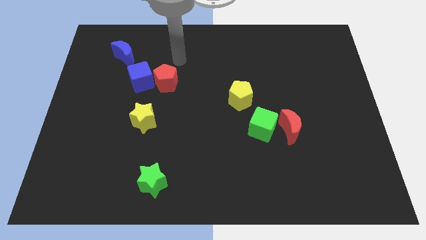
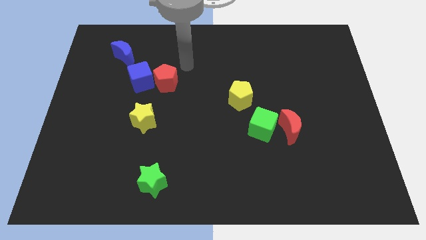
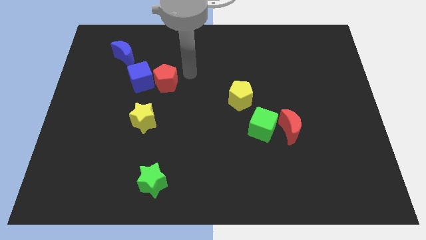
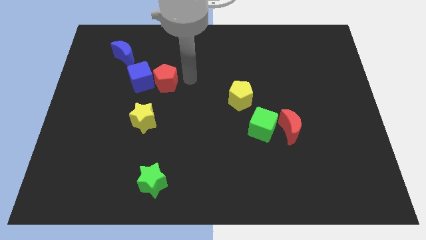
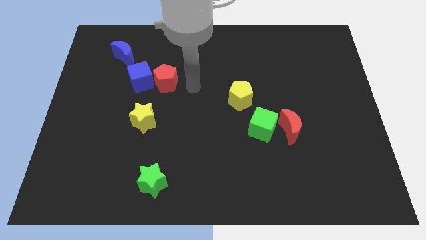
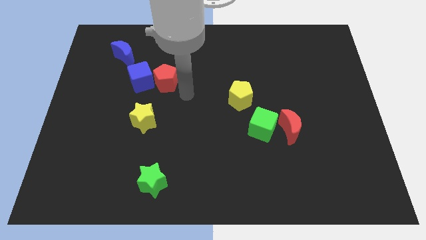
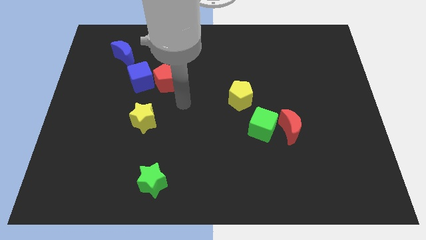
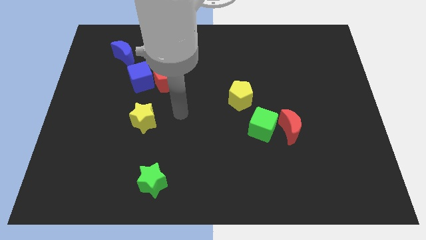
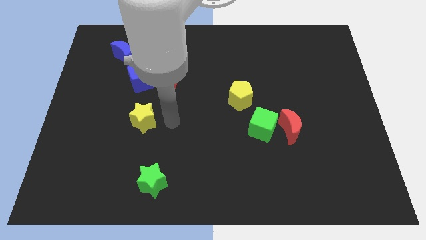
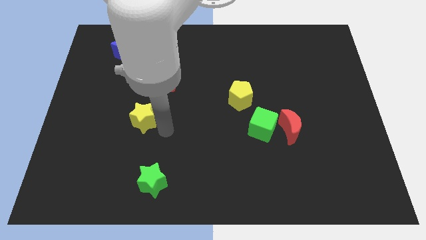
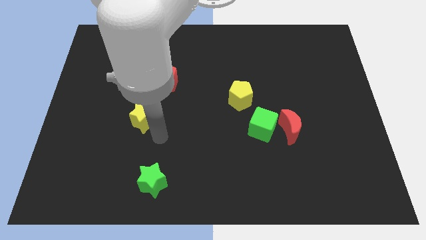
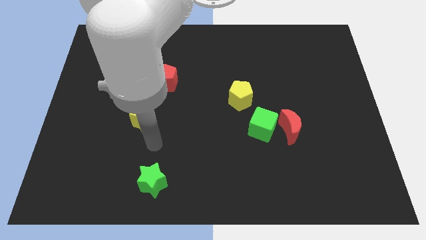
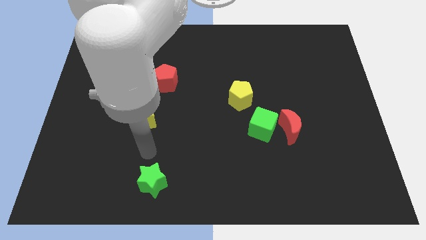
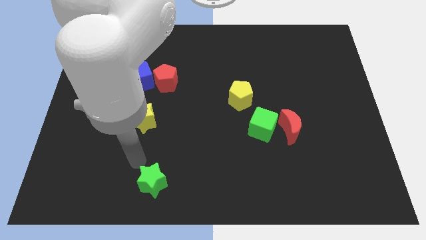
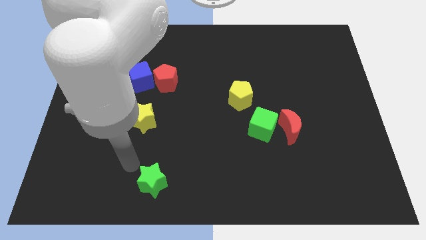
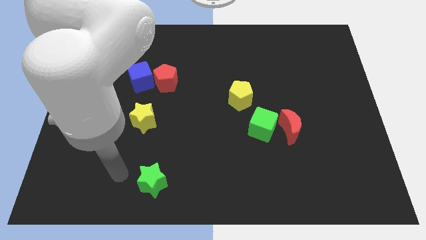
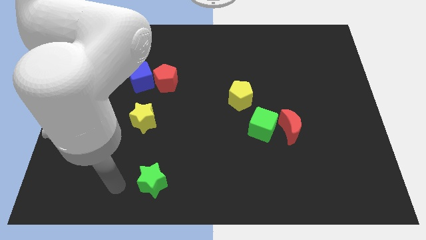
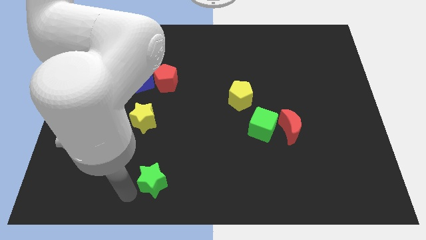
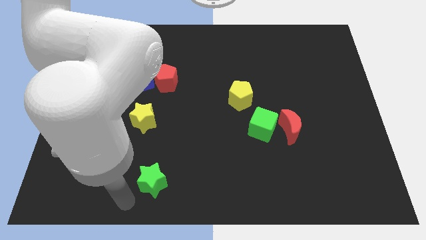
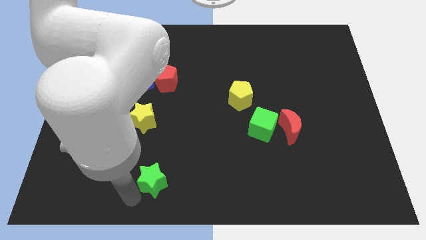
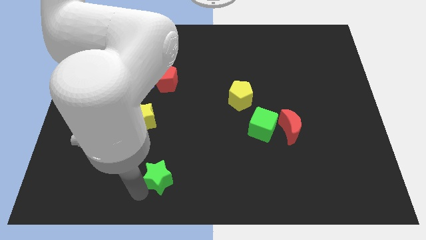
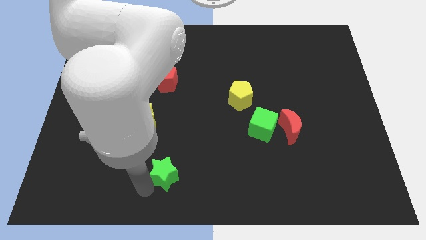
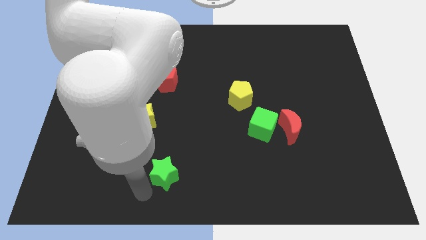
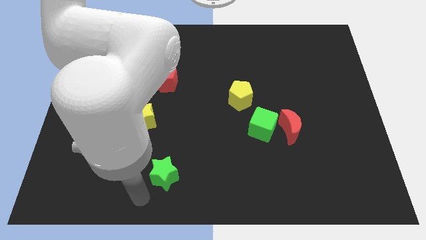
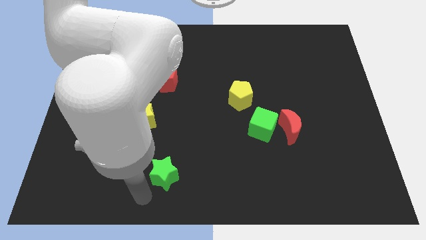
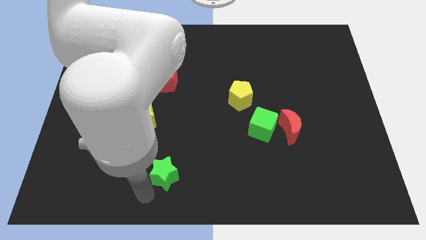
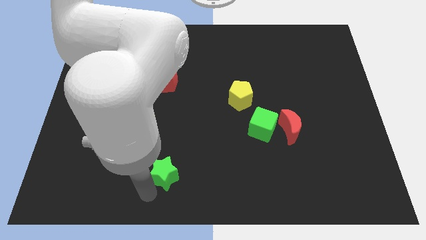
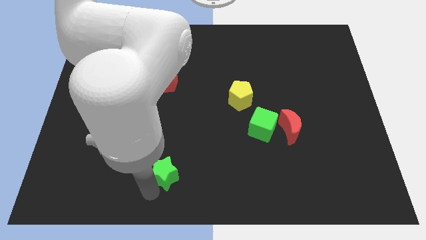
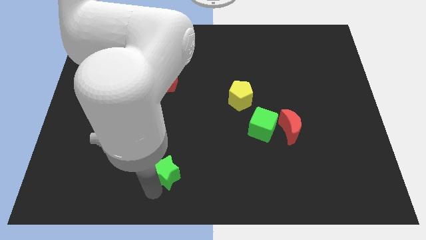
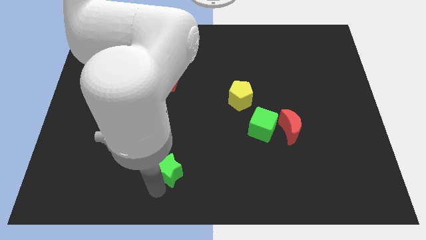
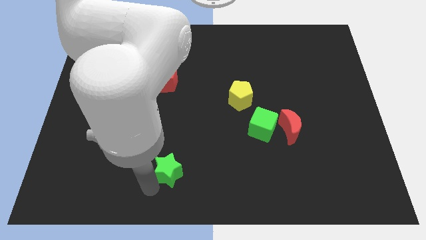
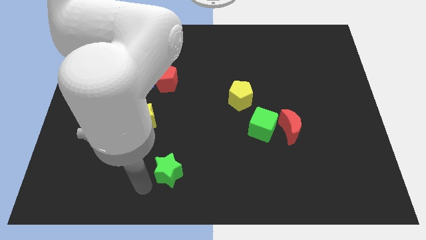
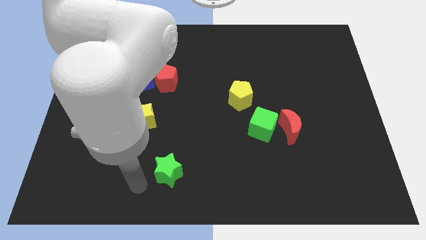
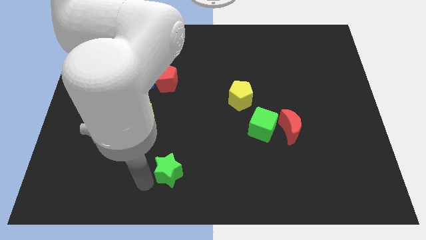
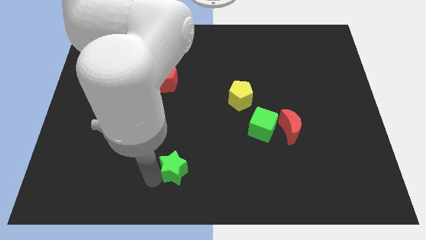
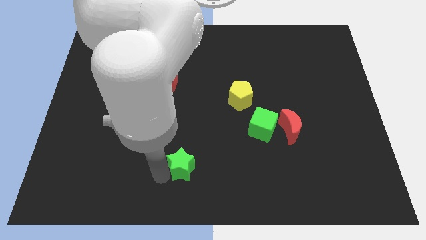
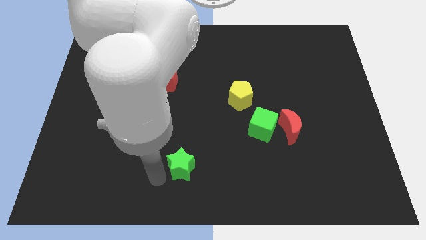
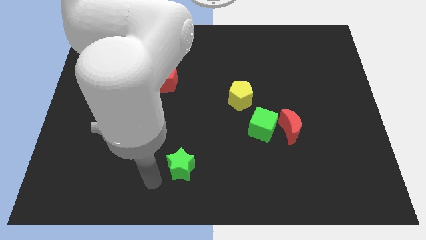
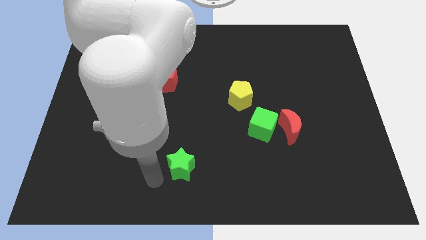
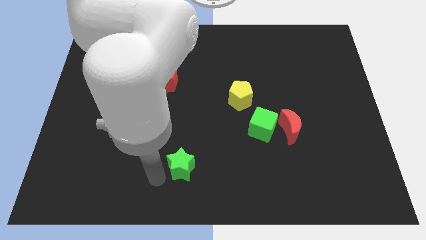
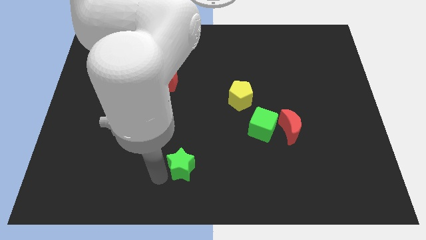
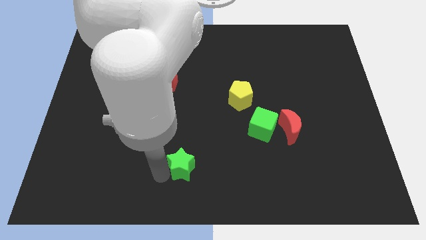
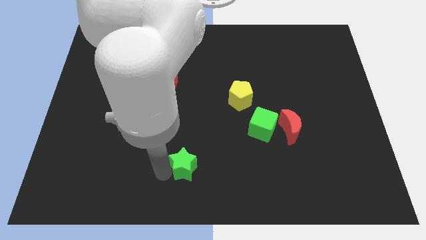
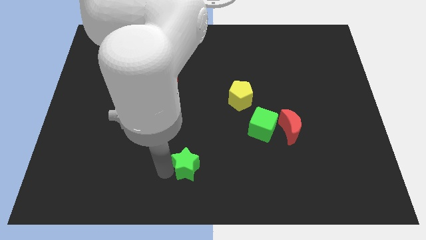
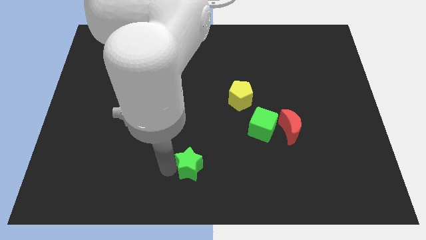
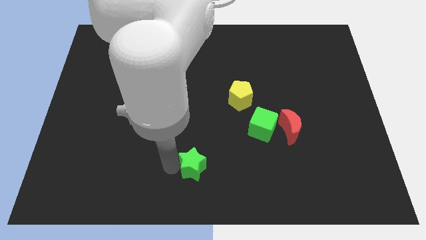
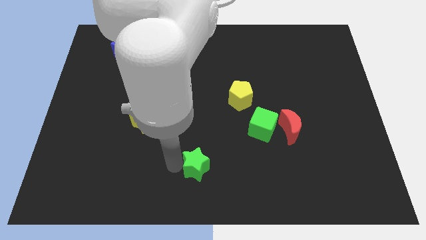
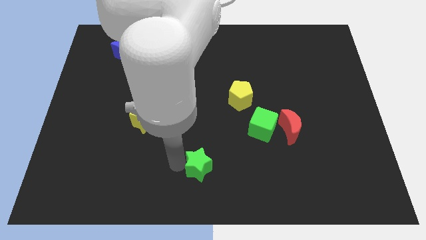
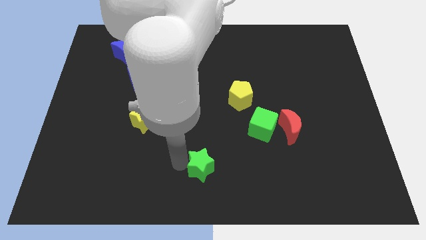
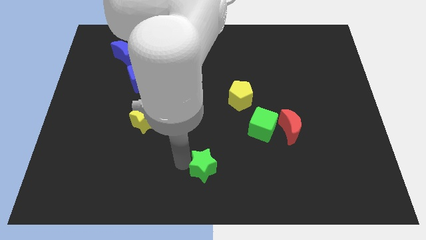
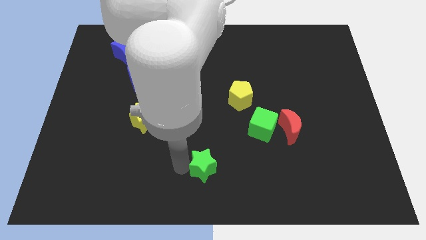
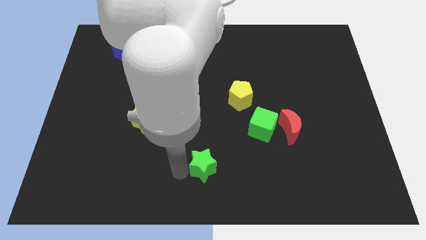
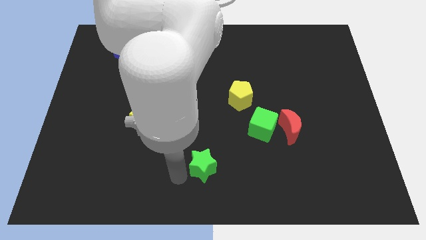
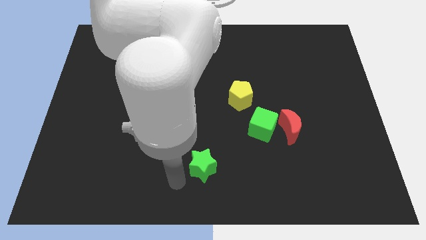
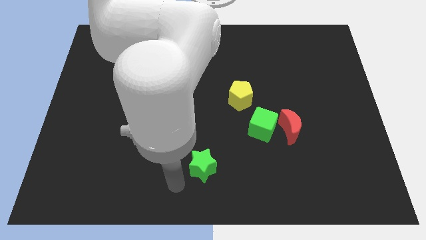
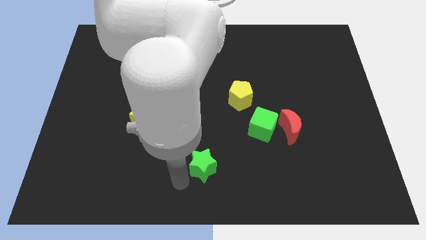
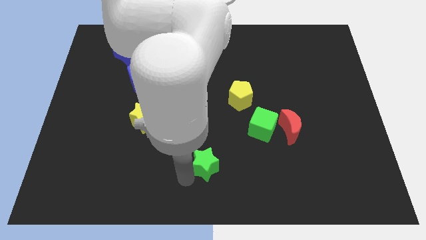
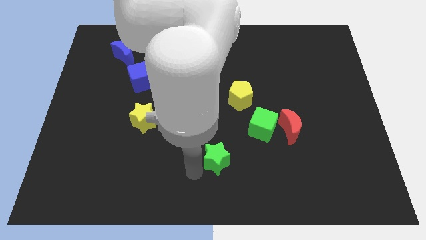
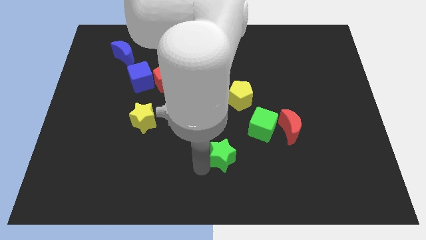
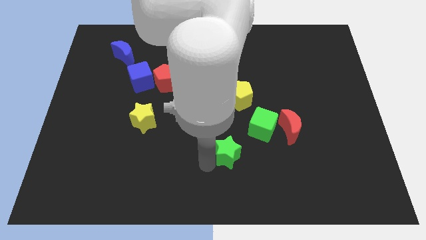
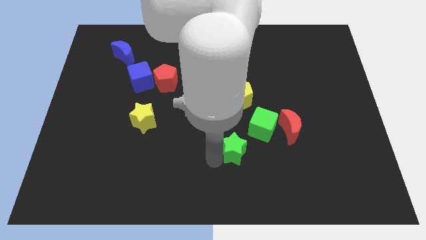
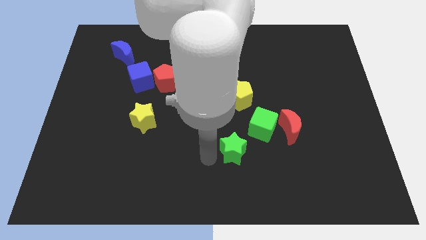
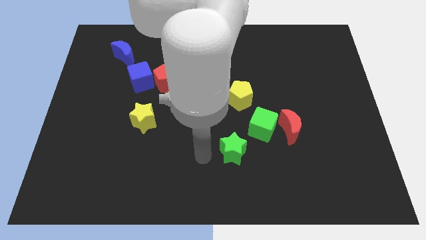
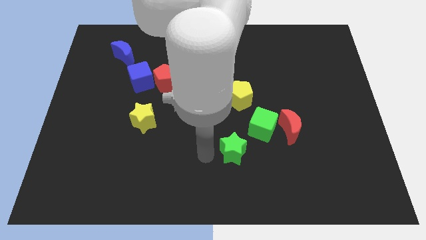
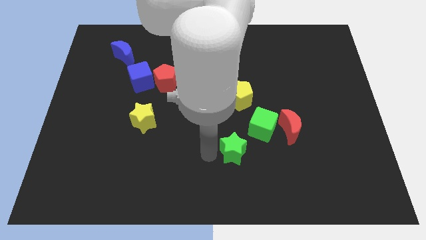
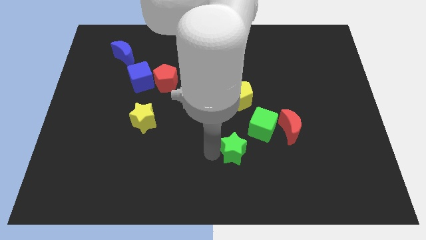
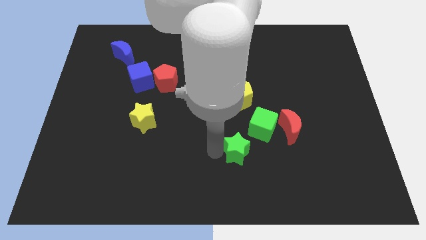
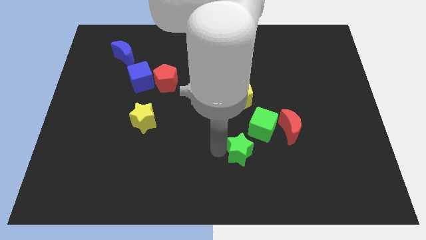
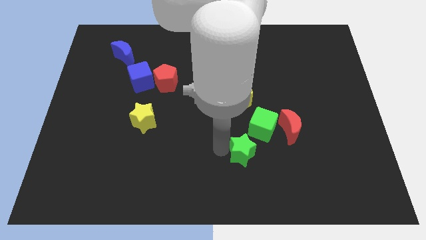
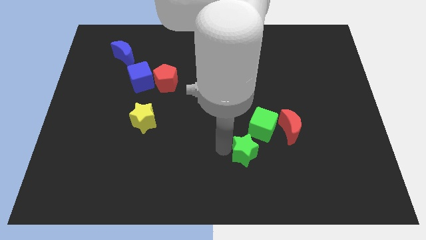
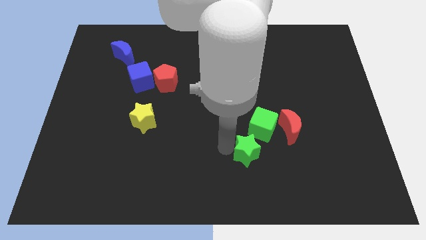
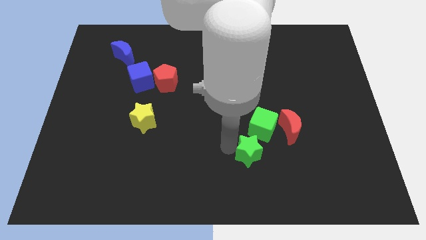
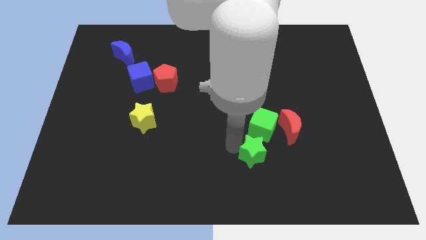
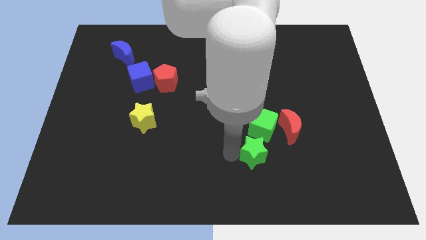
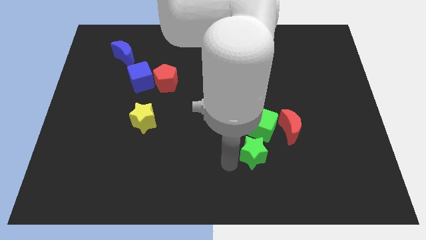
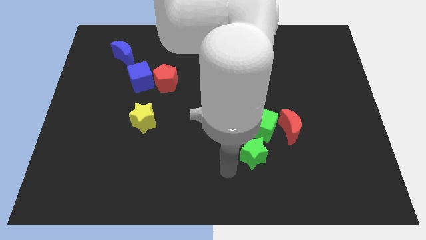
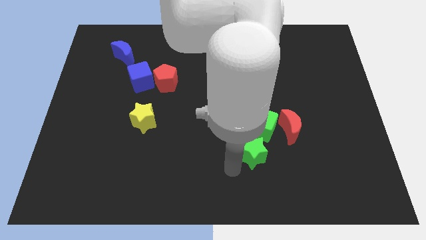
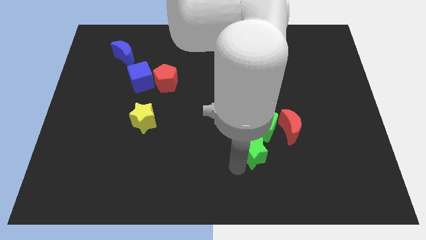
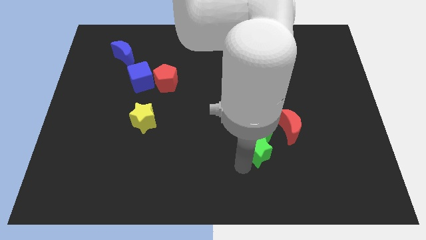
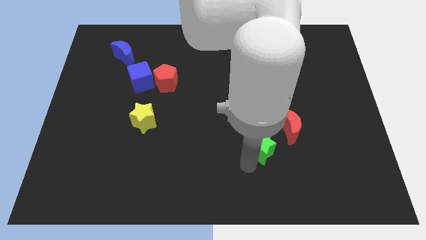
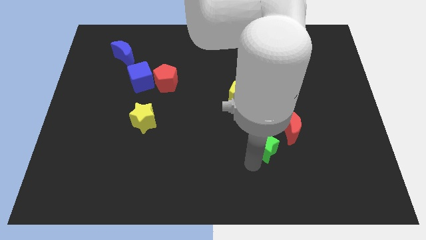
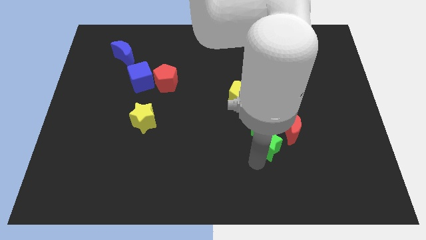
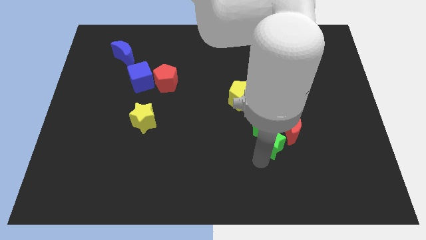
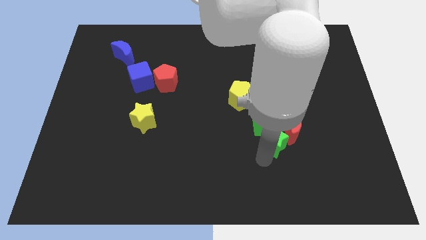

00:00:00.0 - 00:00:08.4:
move the green star to the red moon
